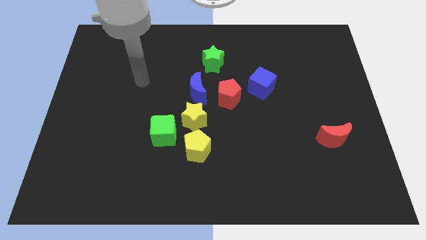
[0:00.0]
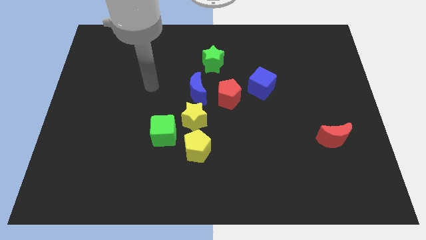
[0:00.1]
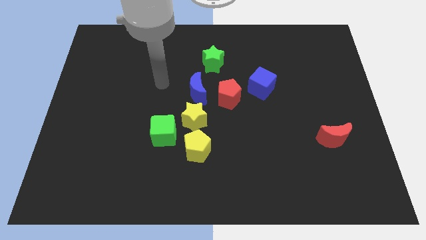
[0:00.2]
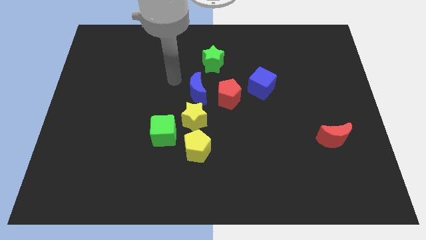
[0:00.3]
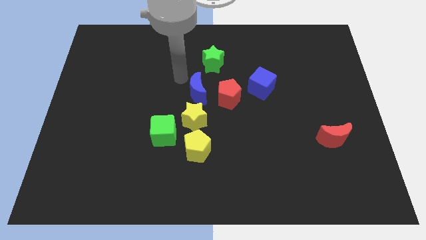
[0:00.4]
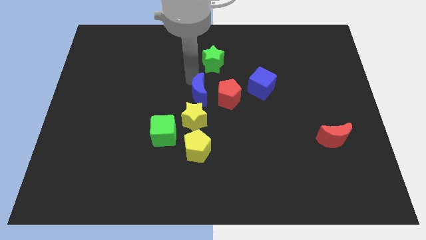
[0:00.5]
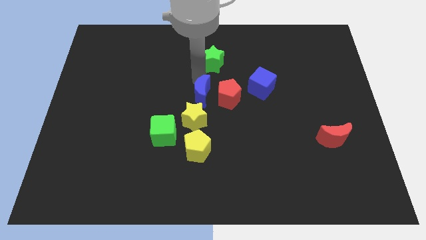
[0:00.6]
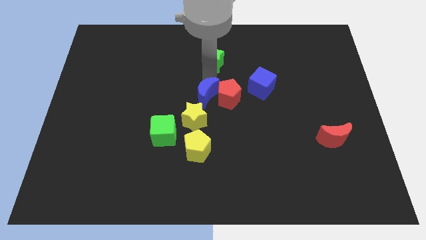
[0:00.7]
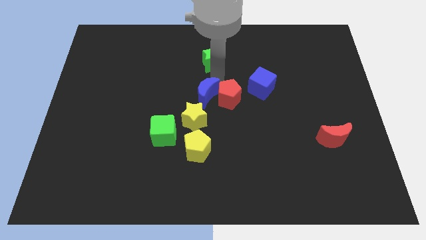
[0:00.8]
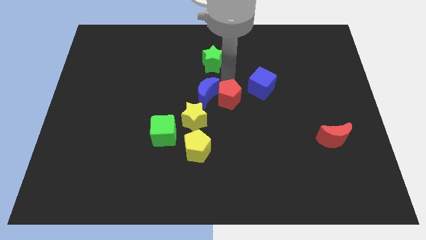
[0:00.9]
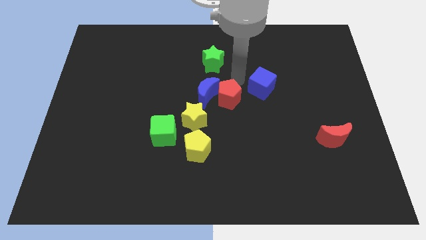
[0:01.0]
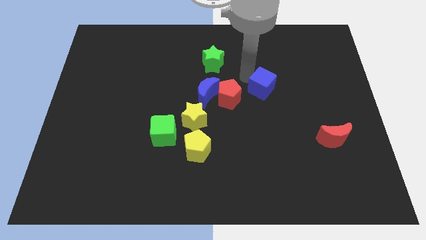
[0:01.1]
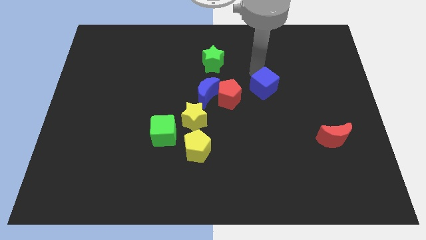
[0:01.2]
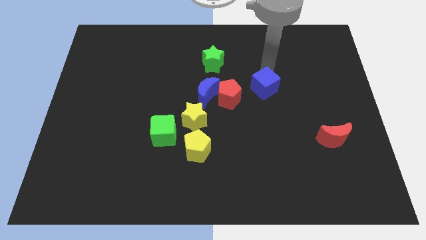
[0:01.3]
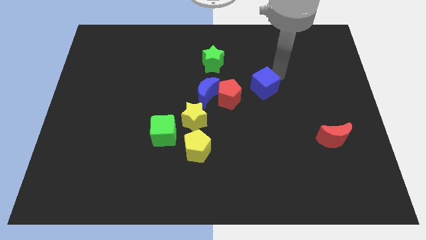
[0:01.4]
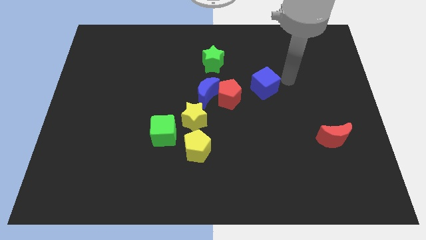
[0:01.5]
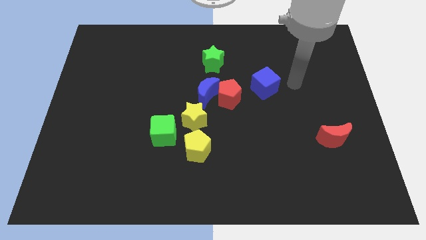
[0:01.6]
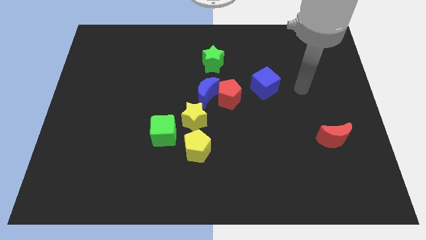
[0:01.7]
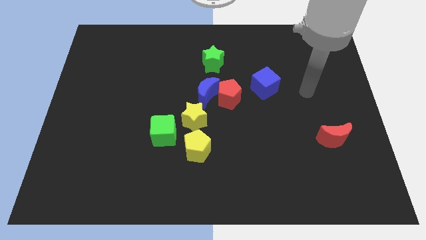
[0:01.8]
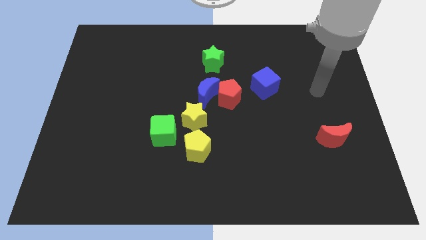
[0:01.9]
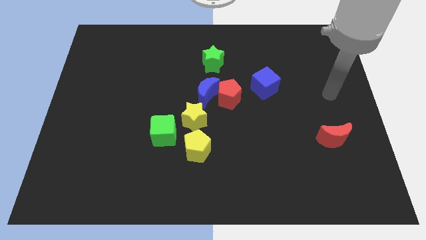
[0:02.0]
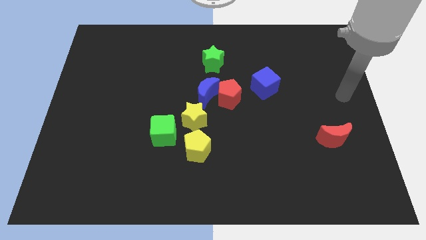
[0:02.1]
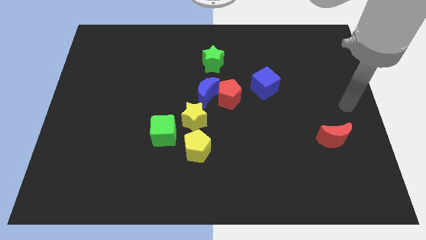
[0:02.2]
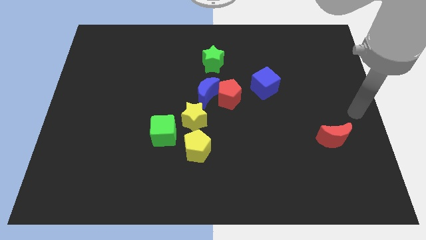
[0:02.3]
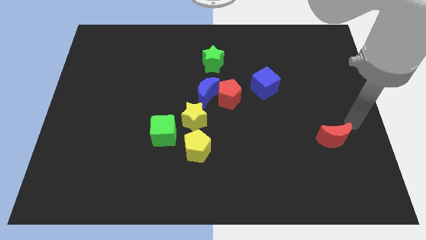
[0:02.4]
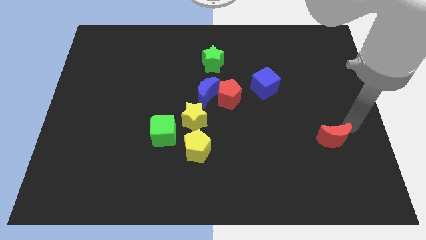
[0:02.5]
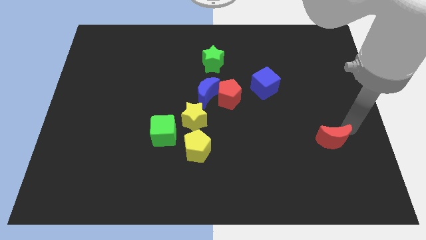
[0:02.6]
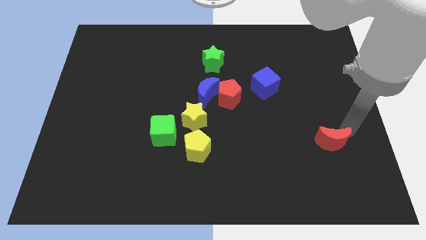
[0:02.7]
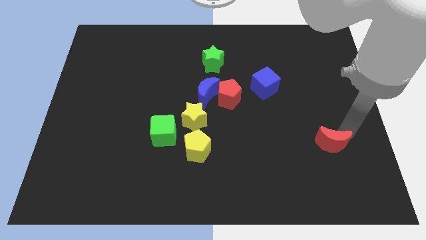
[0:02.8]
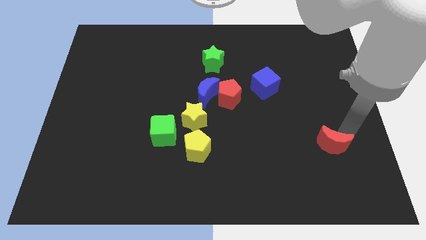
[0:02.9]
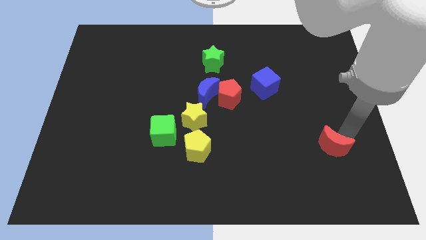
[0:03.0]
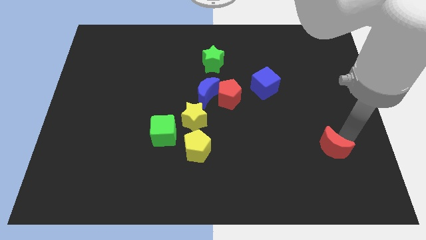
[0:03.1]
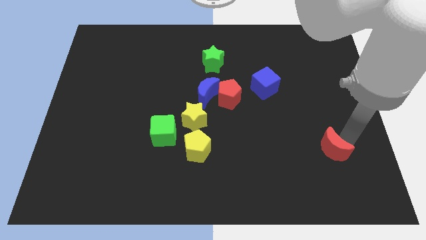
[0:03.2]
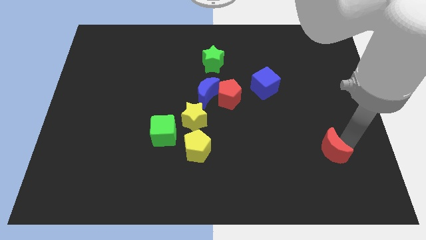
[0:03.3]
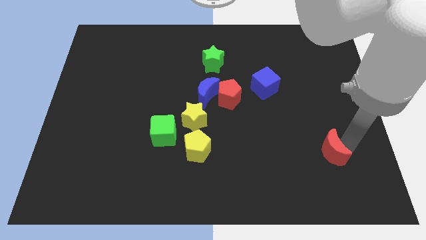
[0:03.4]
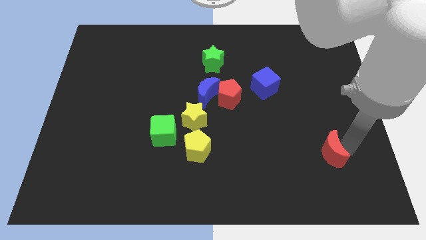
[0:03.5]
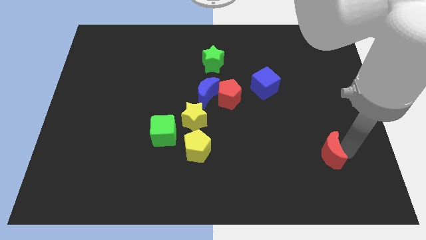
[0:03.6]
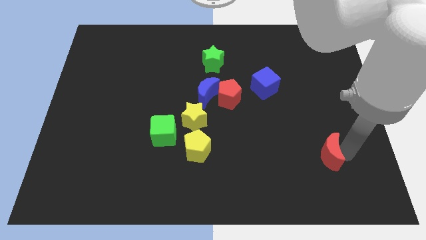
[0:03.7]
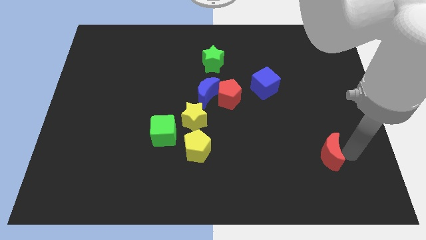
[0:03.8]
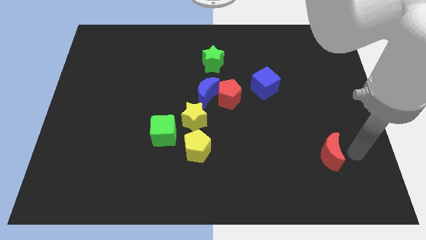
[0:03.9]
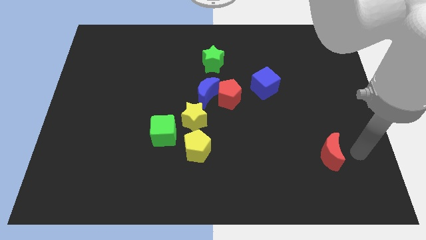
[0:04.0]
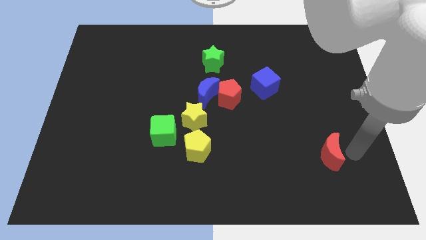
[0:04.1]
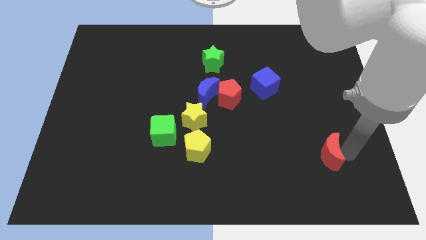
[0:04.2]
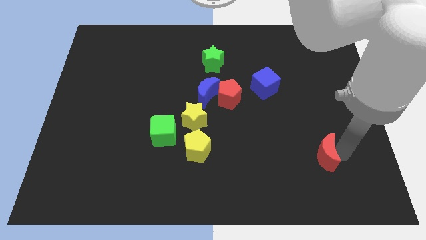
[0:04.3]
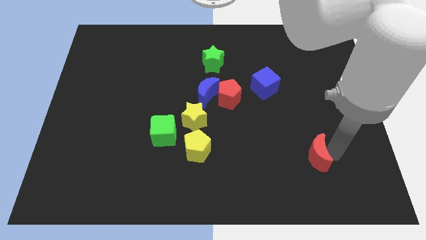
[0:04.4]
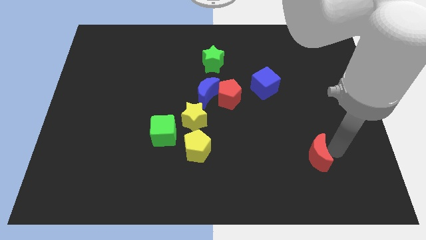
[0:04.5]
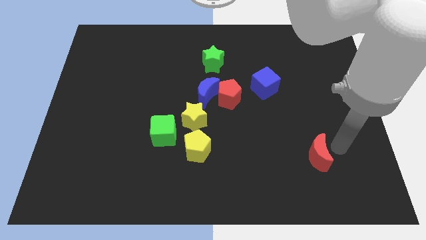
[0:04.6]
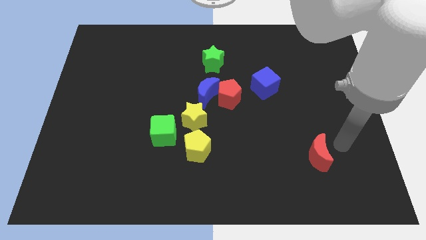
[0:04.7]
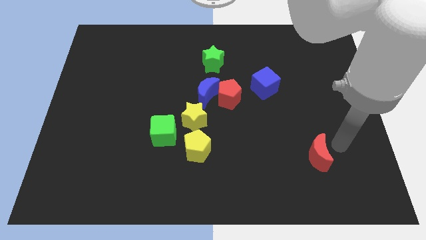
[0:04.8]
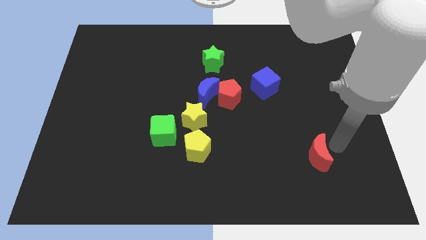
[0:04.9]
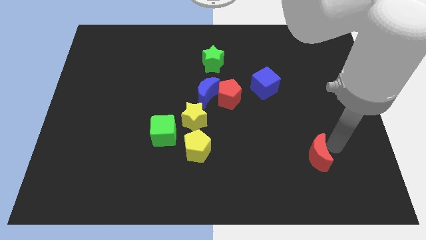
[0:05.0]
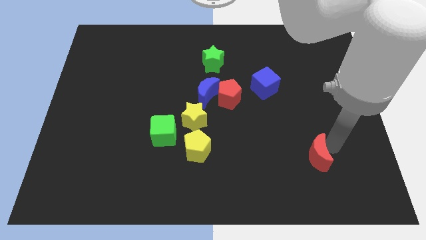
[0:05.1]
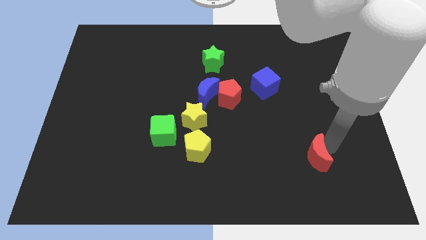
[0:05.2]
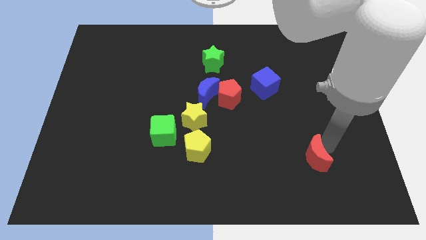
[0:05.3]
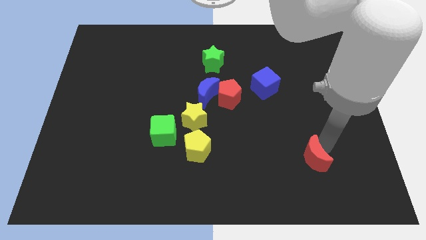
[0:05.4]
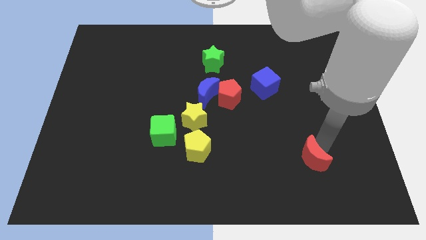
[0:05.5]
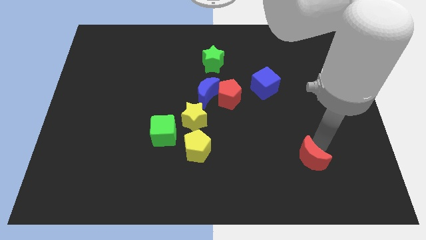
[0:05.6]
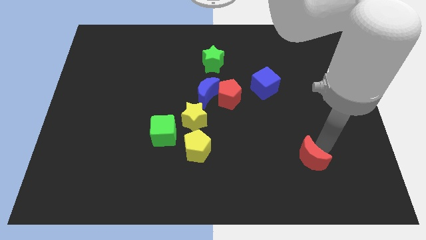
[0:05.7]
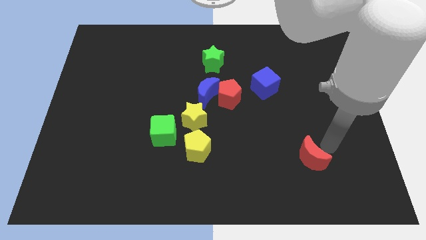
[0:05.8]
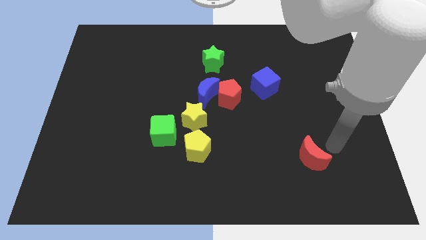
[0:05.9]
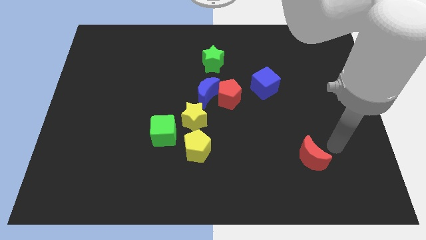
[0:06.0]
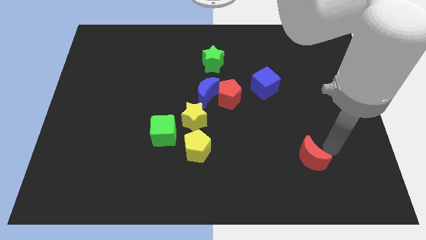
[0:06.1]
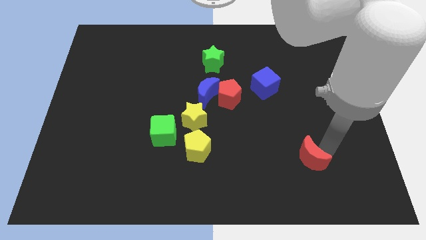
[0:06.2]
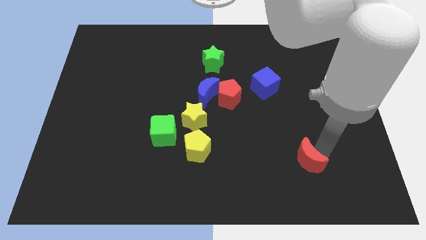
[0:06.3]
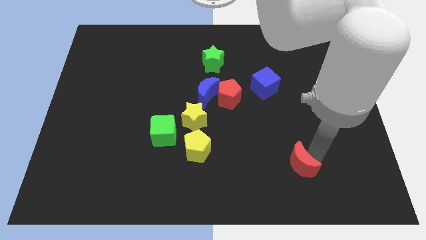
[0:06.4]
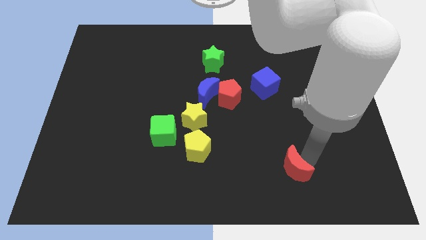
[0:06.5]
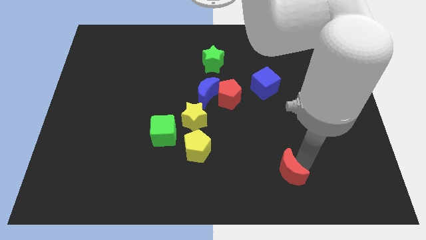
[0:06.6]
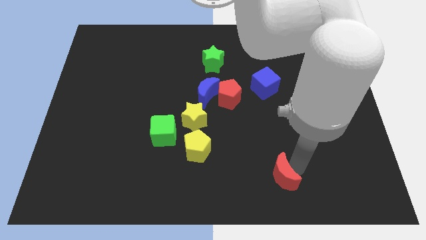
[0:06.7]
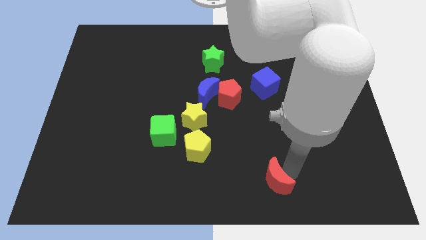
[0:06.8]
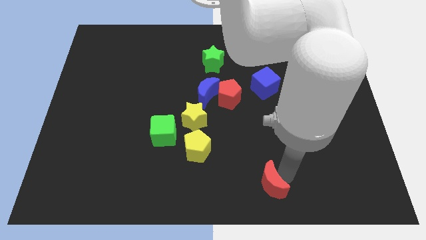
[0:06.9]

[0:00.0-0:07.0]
put the red moon to the bottom
